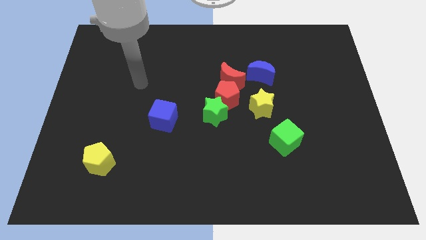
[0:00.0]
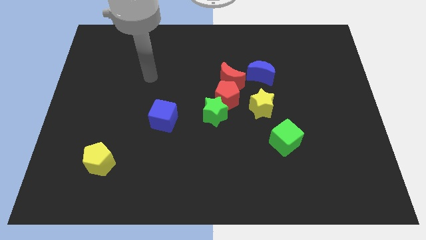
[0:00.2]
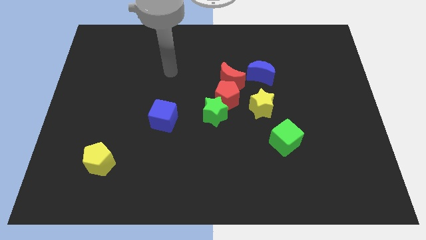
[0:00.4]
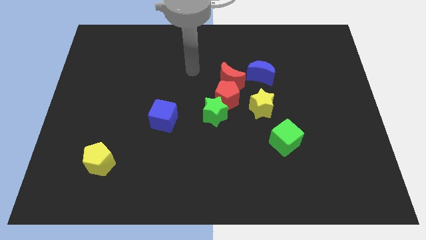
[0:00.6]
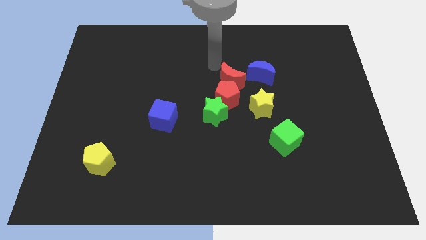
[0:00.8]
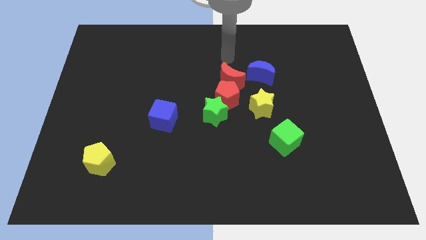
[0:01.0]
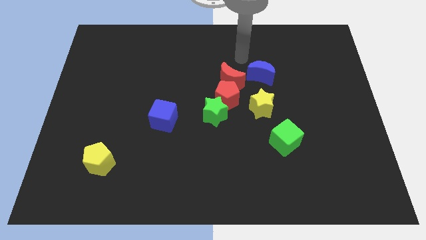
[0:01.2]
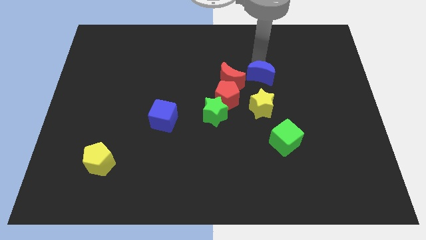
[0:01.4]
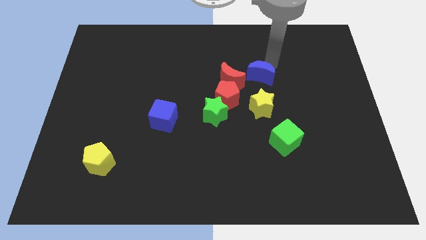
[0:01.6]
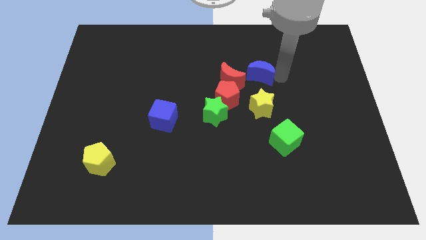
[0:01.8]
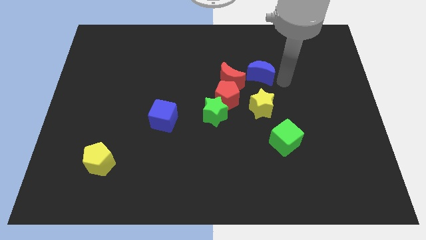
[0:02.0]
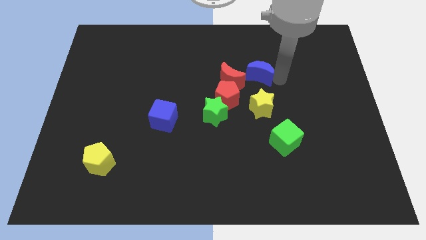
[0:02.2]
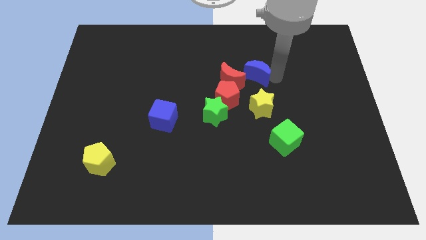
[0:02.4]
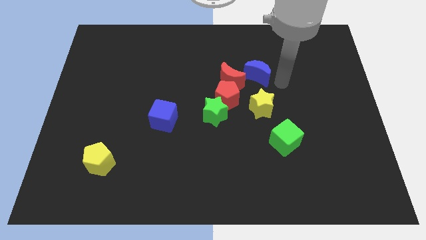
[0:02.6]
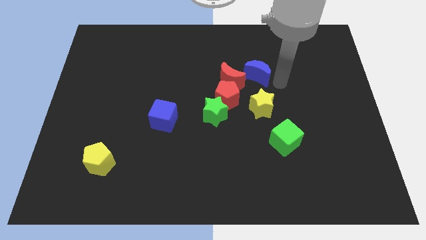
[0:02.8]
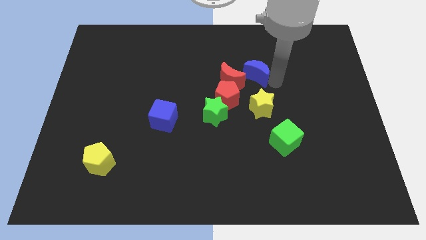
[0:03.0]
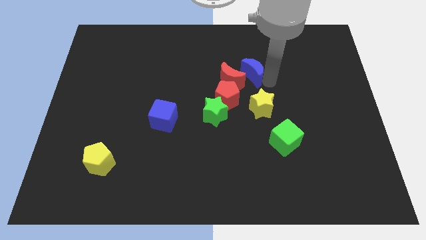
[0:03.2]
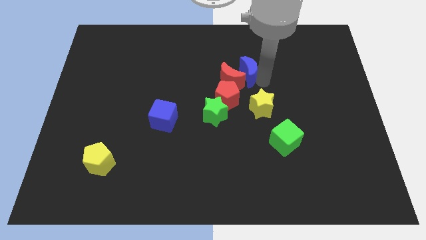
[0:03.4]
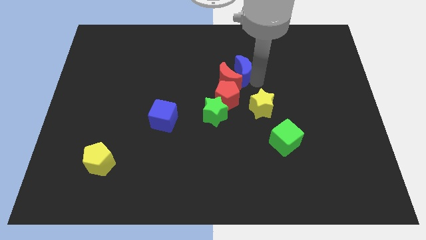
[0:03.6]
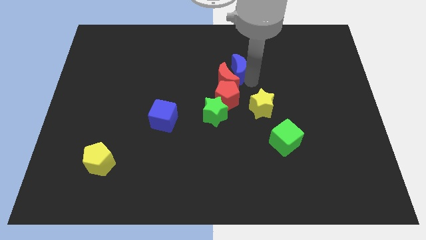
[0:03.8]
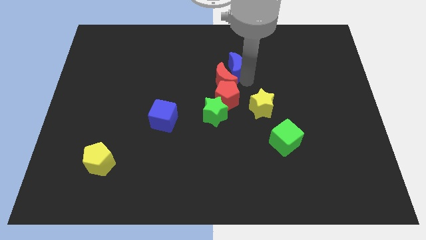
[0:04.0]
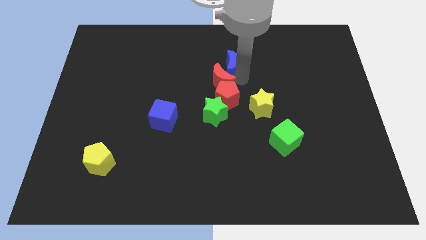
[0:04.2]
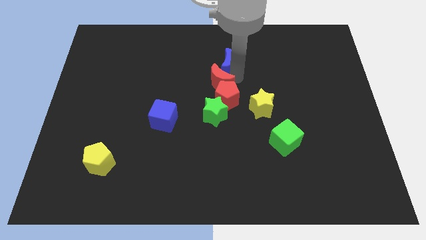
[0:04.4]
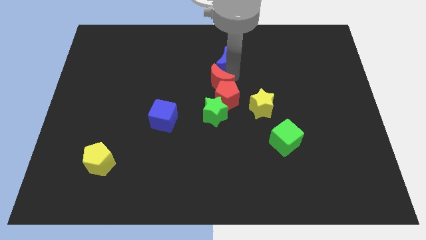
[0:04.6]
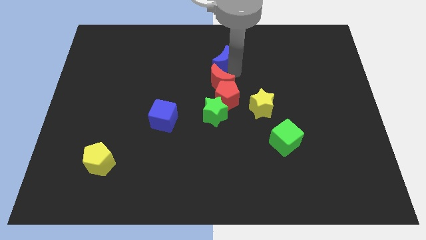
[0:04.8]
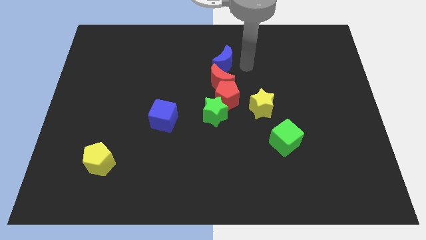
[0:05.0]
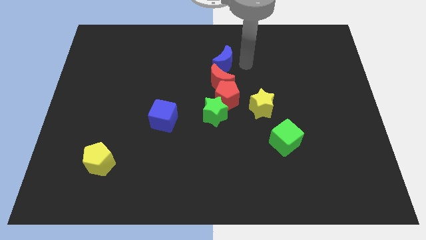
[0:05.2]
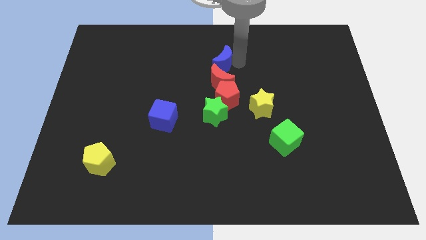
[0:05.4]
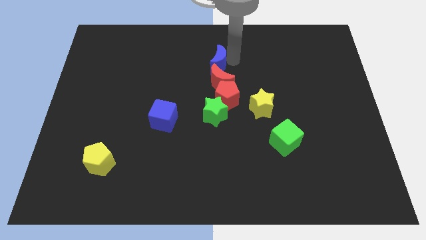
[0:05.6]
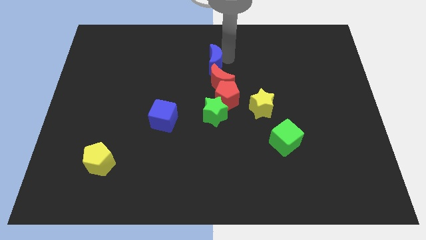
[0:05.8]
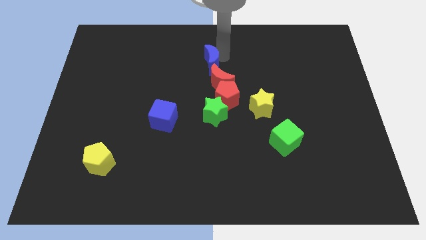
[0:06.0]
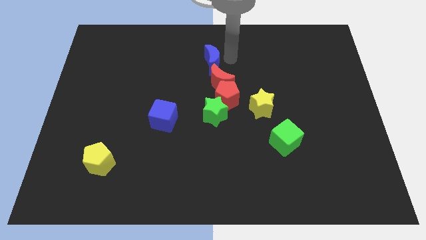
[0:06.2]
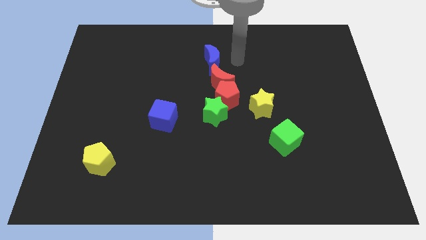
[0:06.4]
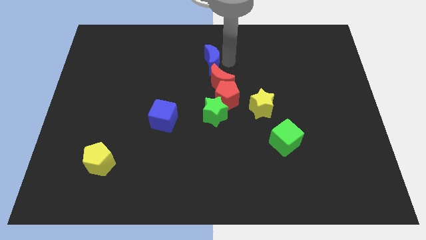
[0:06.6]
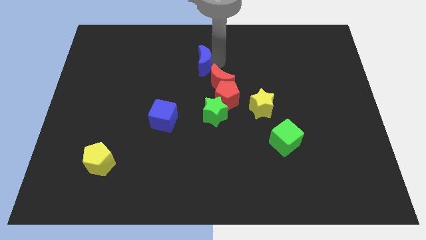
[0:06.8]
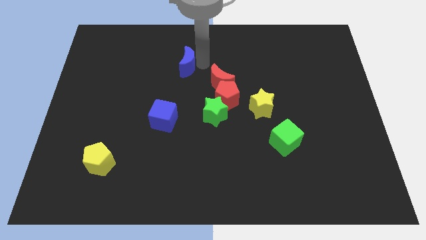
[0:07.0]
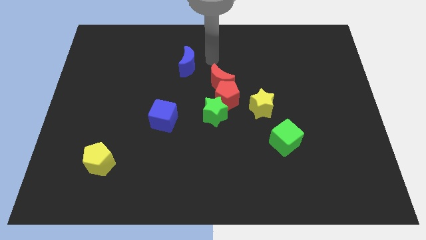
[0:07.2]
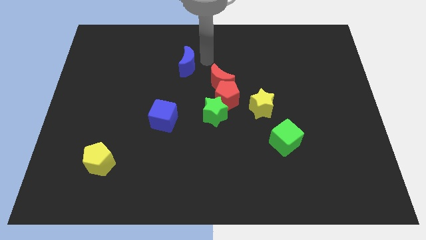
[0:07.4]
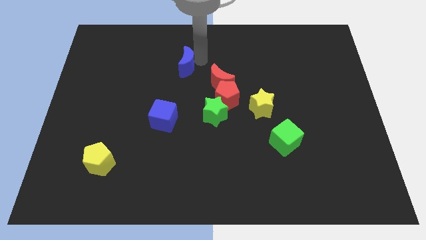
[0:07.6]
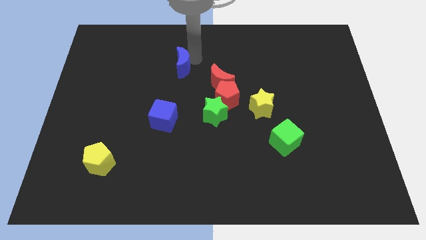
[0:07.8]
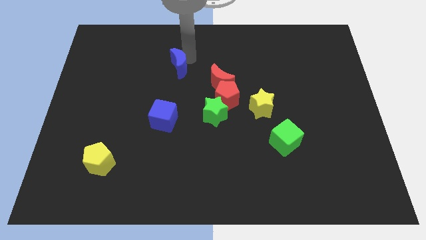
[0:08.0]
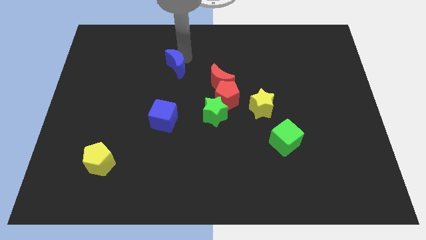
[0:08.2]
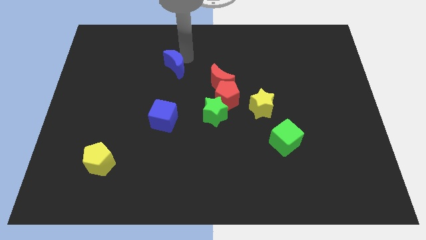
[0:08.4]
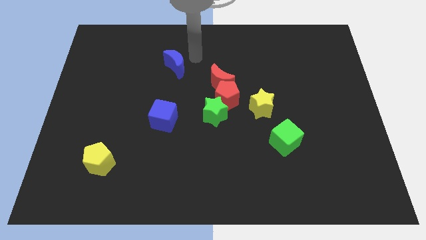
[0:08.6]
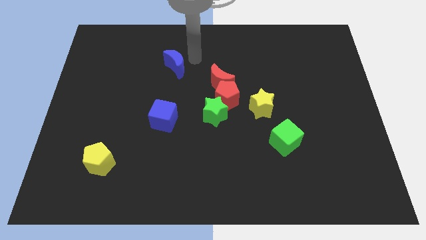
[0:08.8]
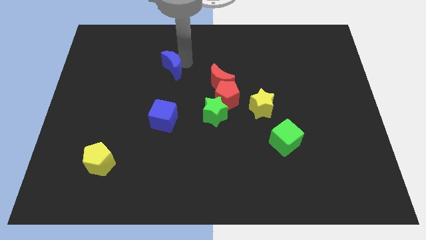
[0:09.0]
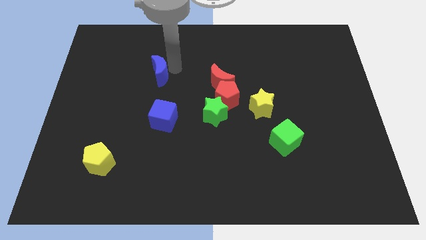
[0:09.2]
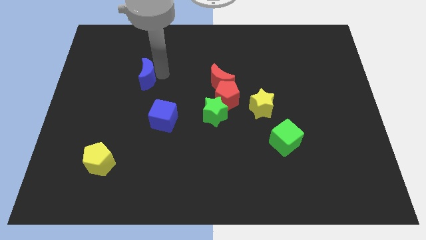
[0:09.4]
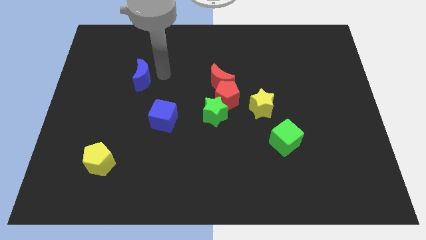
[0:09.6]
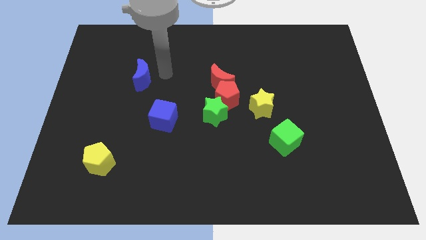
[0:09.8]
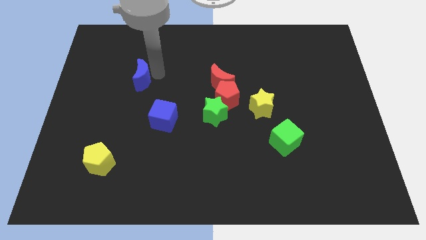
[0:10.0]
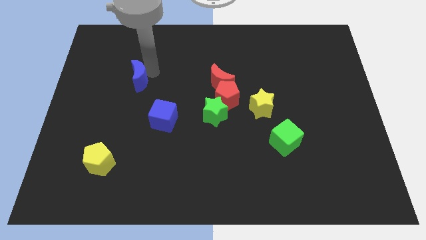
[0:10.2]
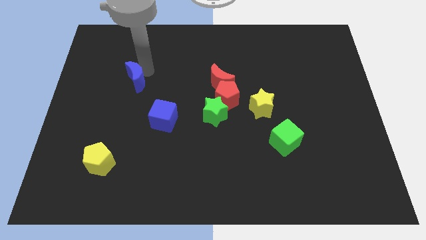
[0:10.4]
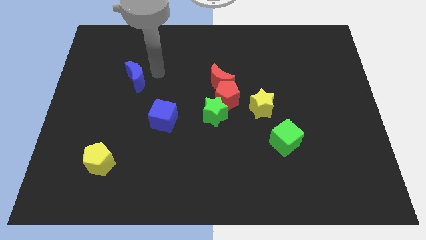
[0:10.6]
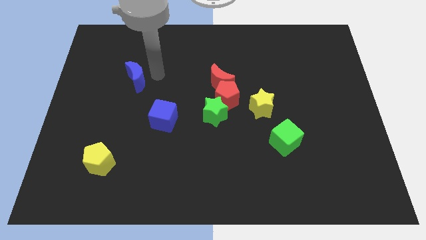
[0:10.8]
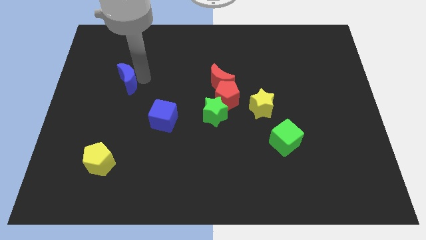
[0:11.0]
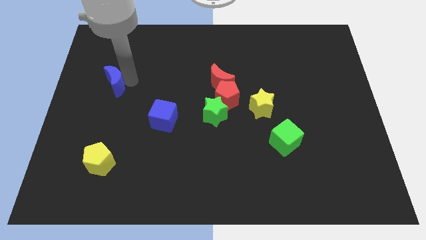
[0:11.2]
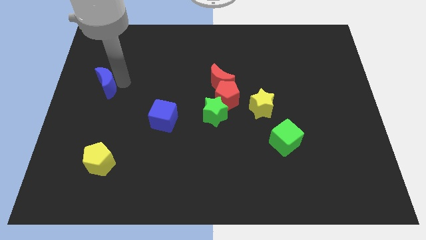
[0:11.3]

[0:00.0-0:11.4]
push the blue moon to the center left

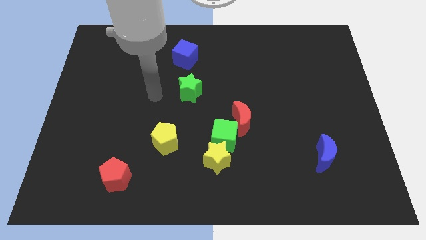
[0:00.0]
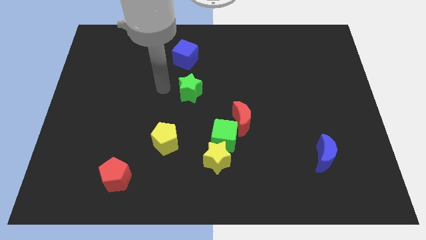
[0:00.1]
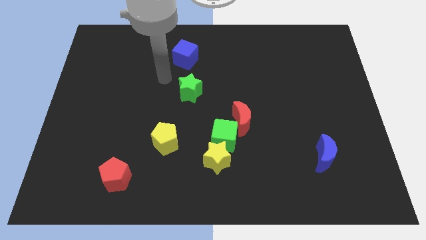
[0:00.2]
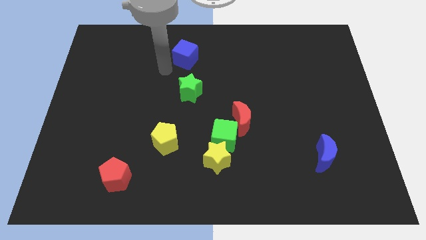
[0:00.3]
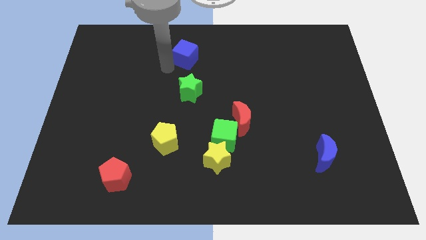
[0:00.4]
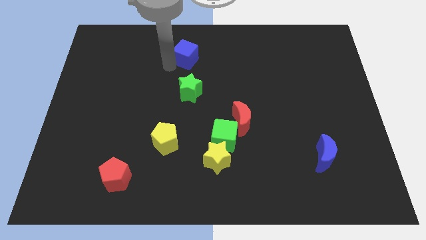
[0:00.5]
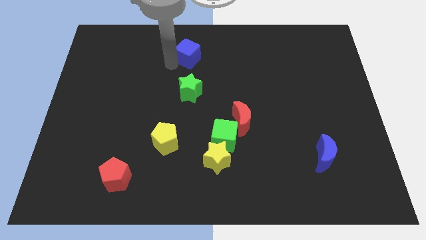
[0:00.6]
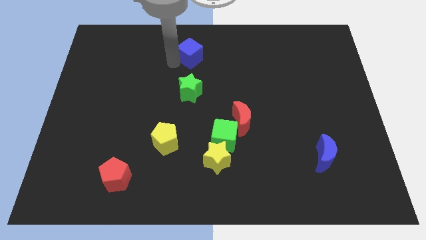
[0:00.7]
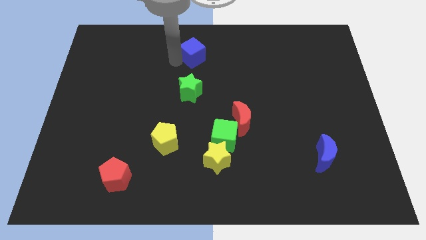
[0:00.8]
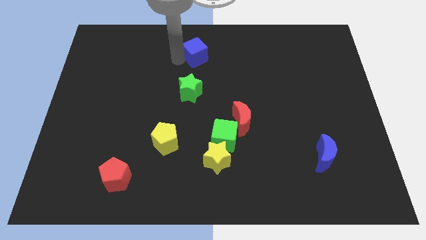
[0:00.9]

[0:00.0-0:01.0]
slide the blue cube to the top
